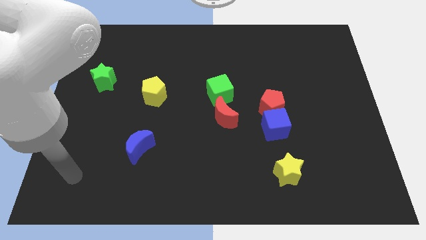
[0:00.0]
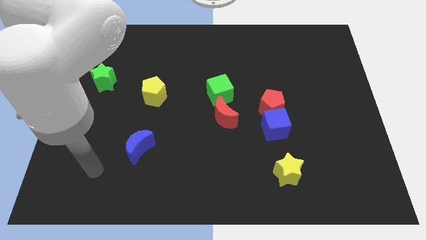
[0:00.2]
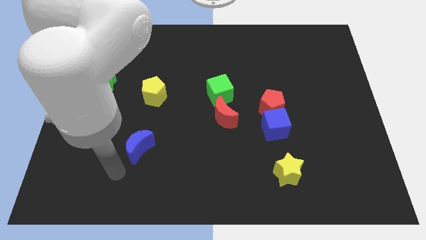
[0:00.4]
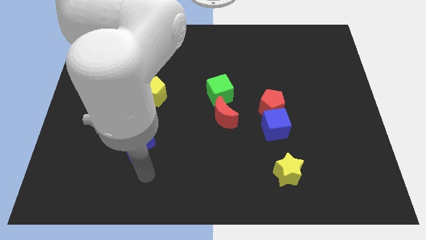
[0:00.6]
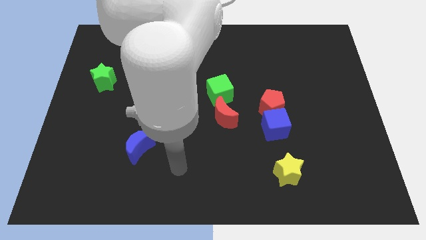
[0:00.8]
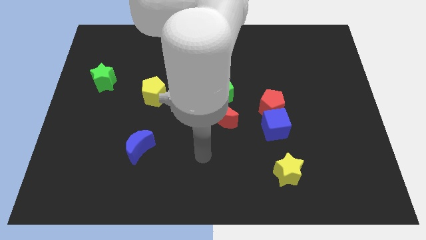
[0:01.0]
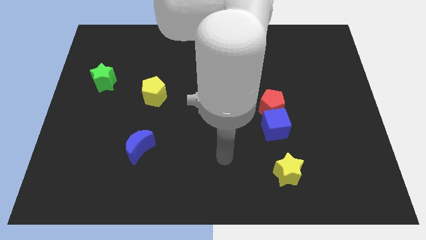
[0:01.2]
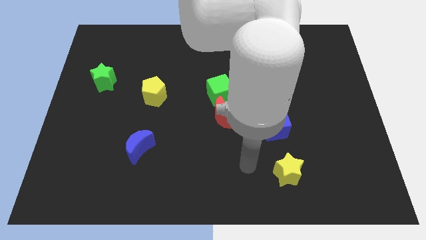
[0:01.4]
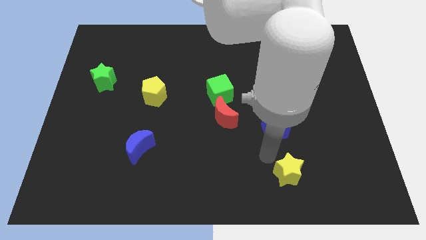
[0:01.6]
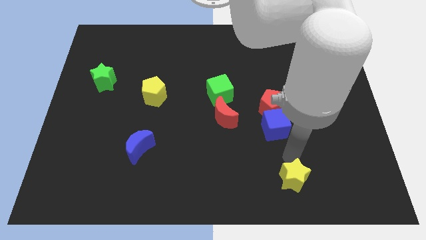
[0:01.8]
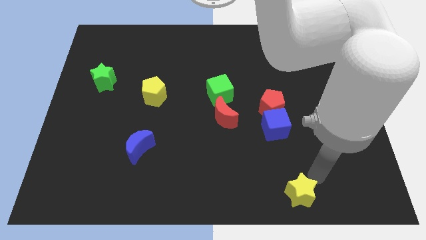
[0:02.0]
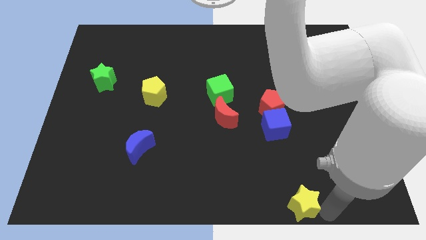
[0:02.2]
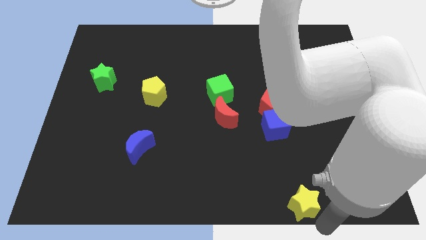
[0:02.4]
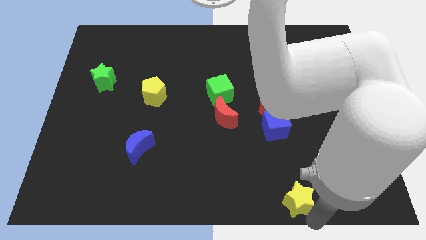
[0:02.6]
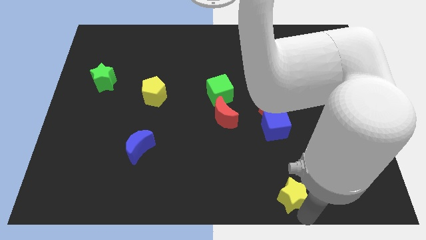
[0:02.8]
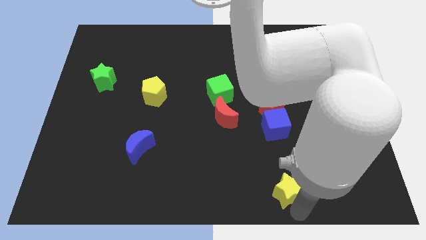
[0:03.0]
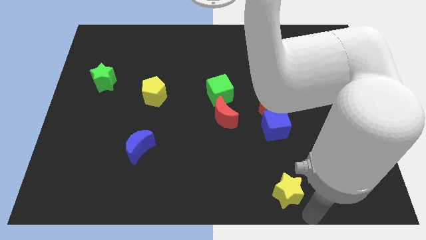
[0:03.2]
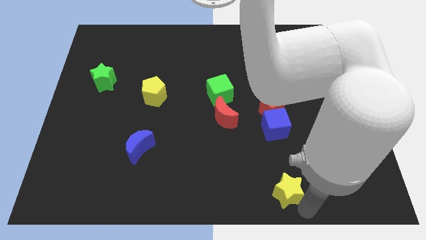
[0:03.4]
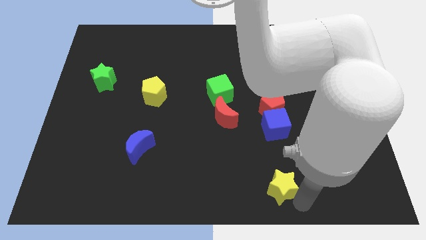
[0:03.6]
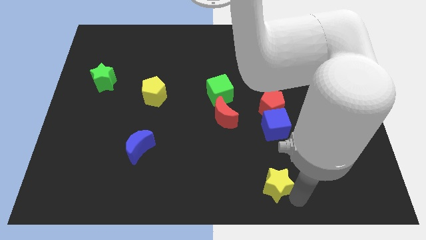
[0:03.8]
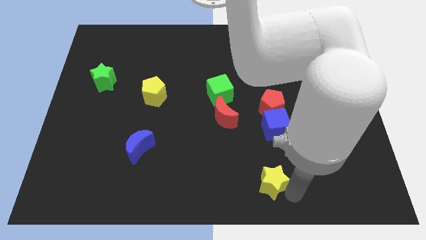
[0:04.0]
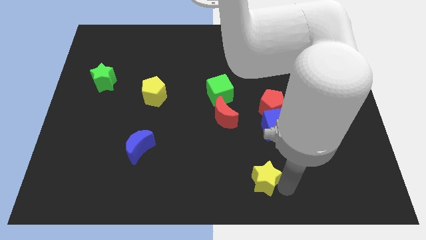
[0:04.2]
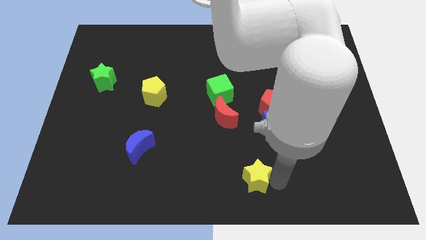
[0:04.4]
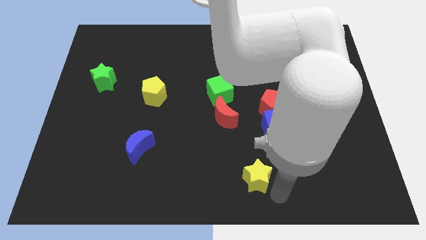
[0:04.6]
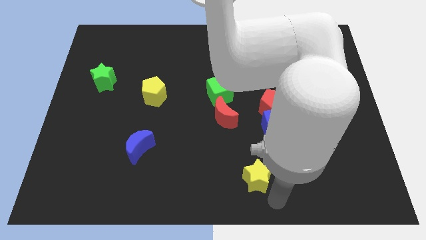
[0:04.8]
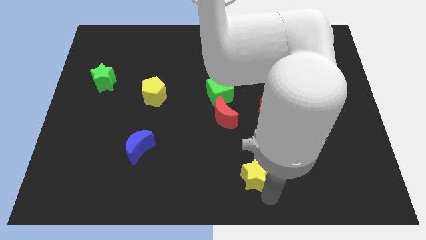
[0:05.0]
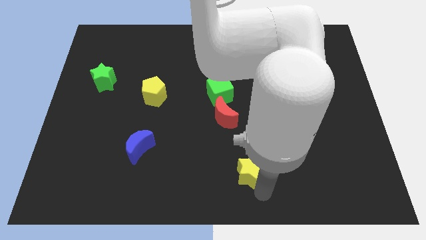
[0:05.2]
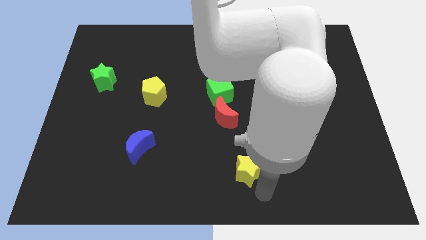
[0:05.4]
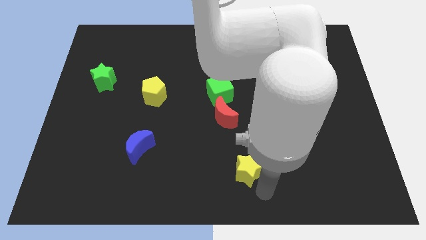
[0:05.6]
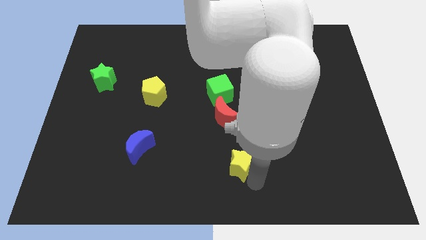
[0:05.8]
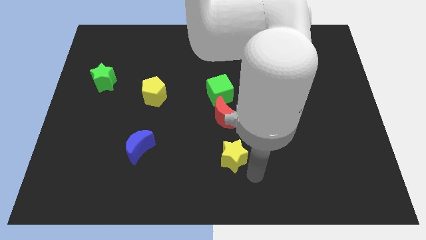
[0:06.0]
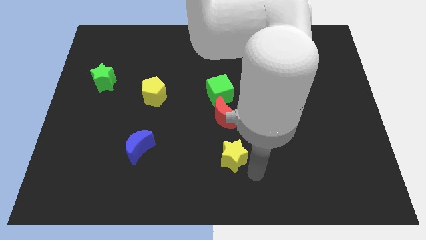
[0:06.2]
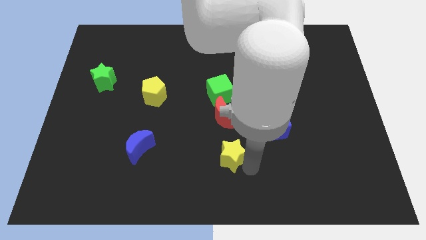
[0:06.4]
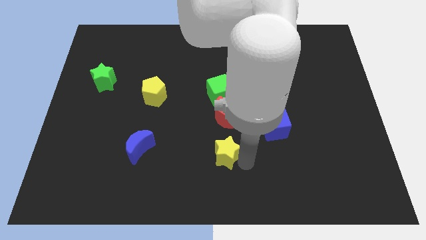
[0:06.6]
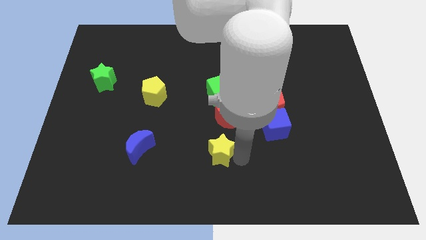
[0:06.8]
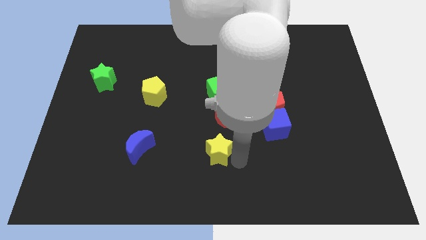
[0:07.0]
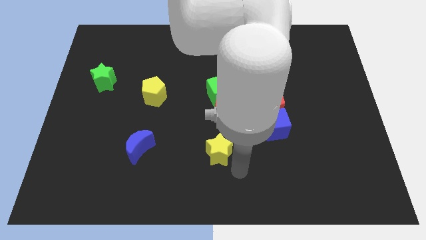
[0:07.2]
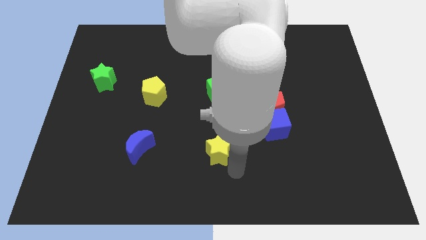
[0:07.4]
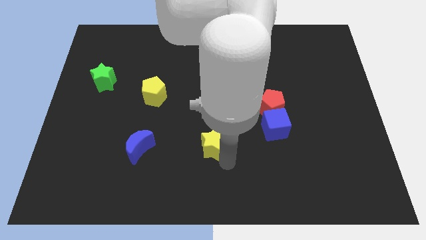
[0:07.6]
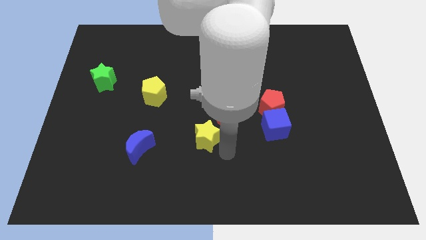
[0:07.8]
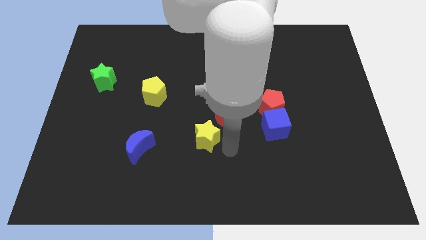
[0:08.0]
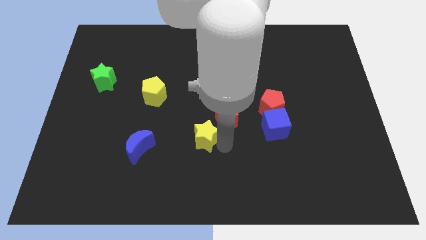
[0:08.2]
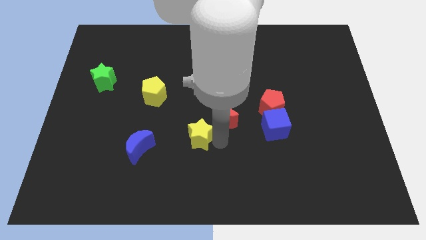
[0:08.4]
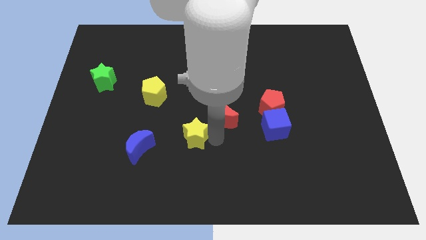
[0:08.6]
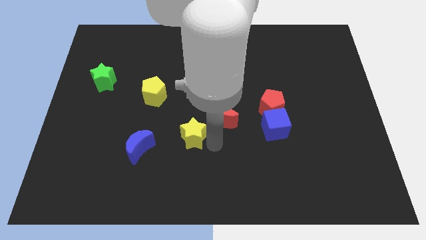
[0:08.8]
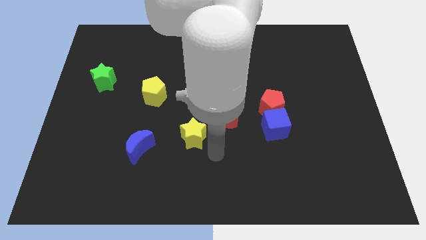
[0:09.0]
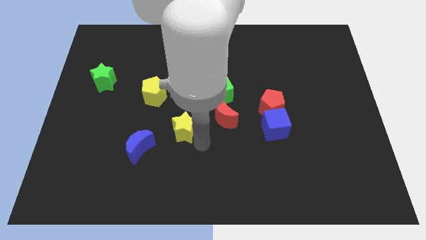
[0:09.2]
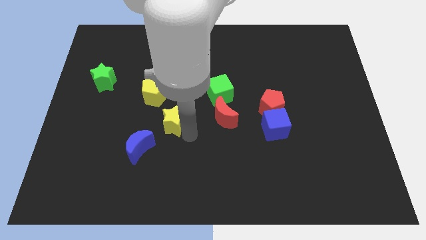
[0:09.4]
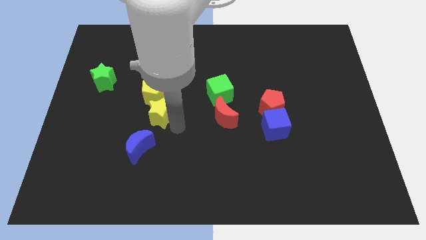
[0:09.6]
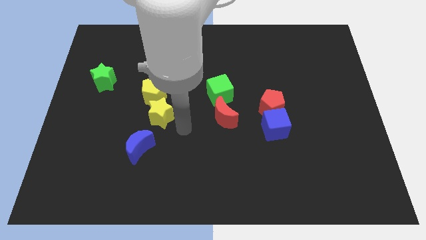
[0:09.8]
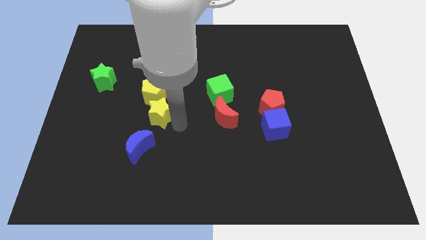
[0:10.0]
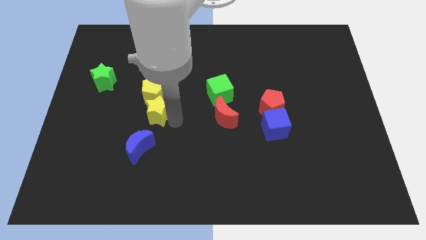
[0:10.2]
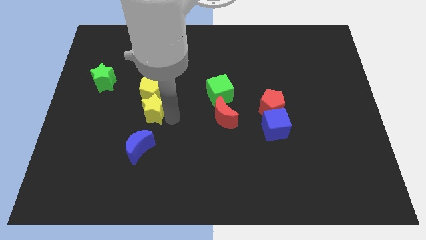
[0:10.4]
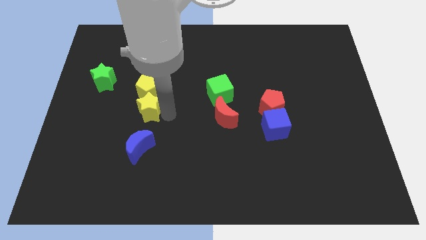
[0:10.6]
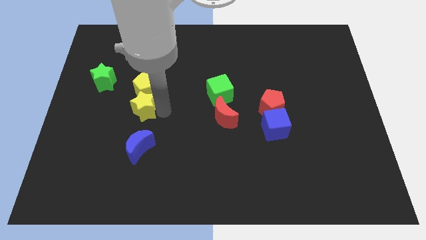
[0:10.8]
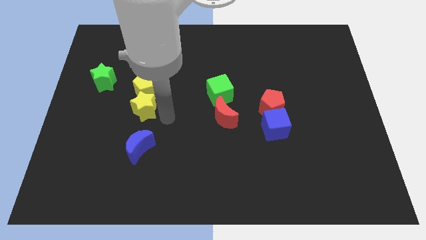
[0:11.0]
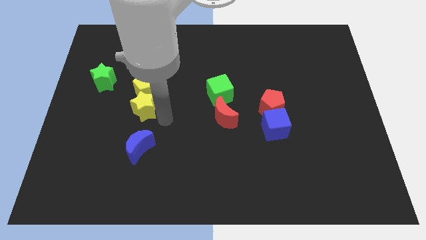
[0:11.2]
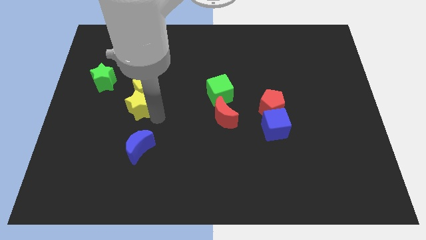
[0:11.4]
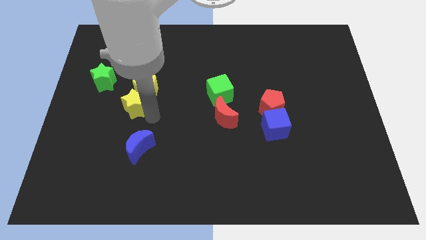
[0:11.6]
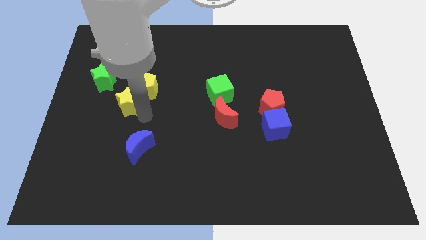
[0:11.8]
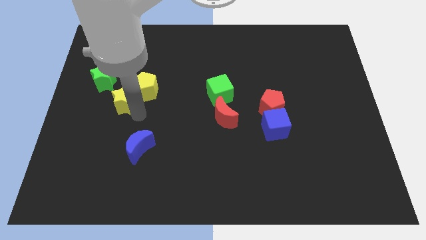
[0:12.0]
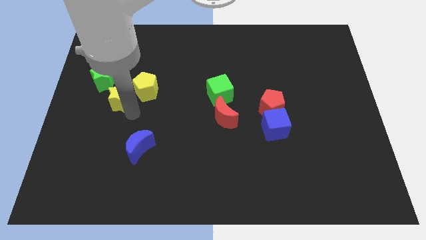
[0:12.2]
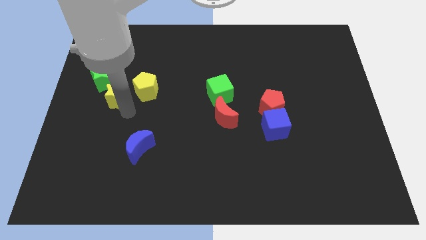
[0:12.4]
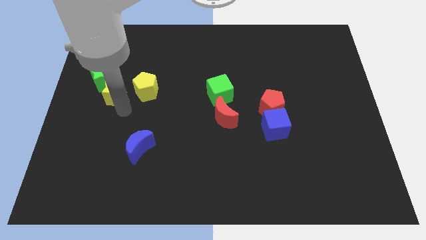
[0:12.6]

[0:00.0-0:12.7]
push the yellow star towards the green star

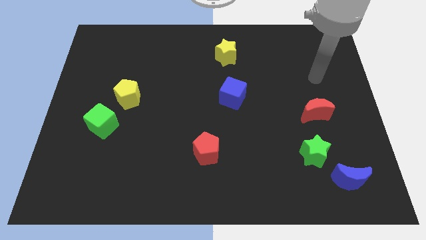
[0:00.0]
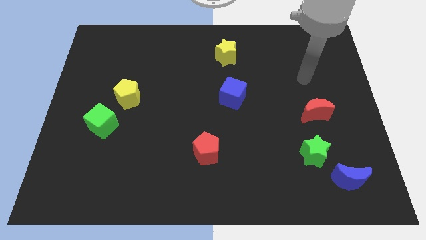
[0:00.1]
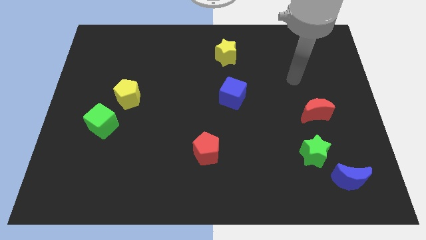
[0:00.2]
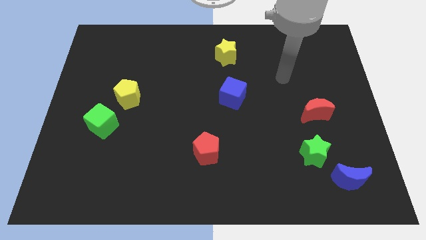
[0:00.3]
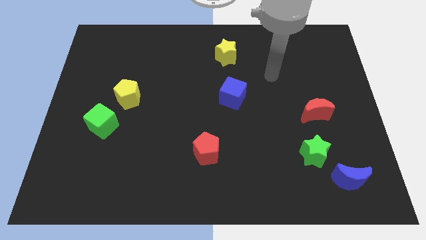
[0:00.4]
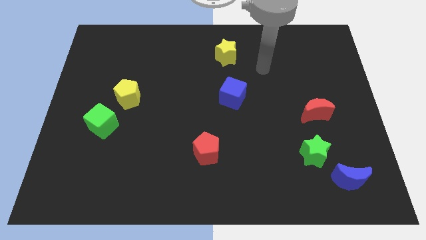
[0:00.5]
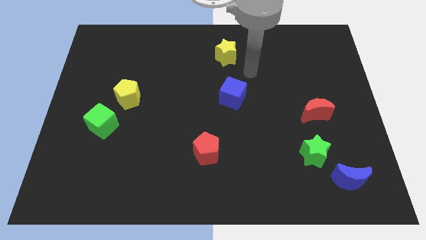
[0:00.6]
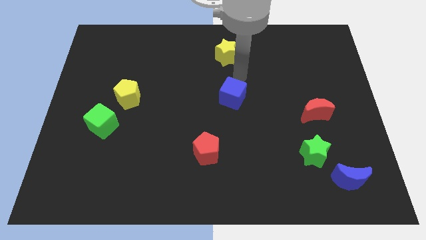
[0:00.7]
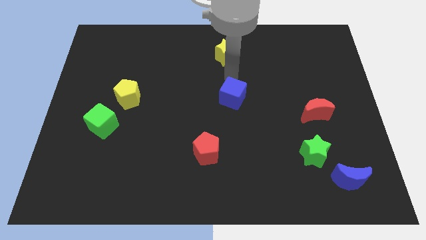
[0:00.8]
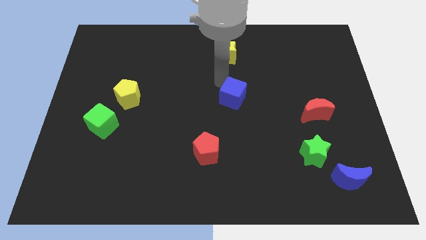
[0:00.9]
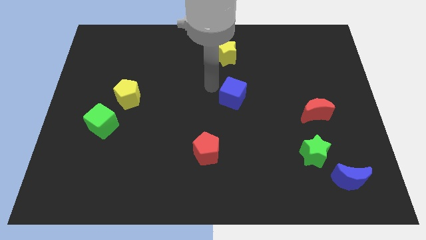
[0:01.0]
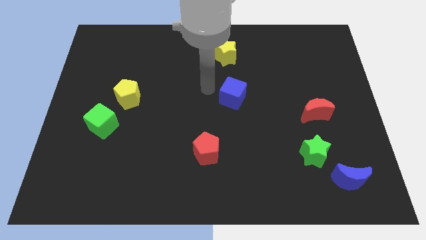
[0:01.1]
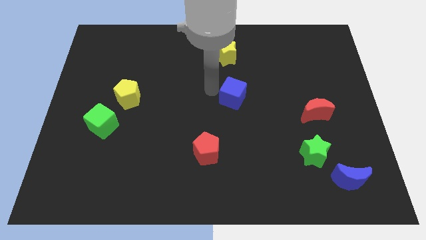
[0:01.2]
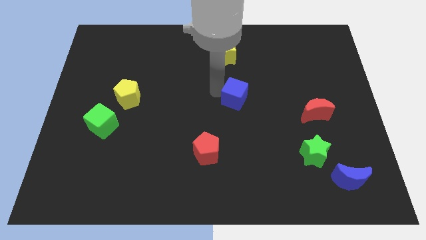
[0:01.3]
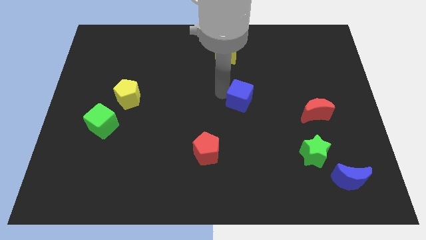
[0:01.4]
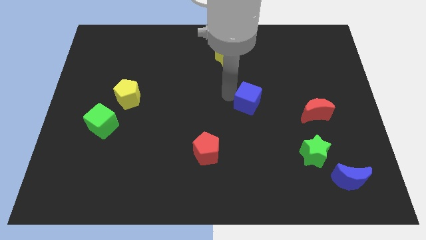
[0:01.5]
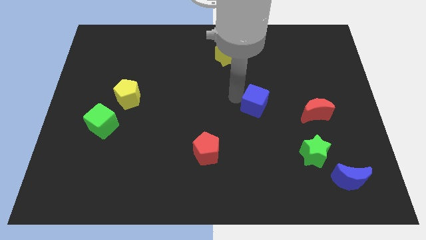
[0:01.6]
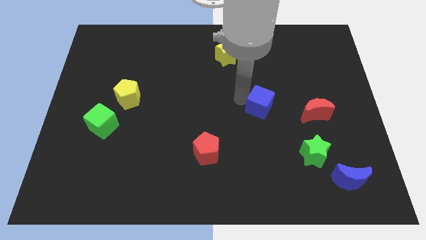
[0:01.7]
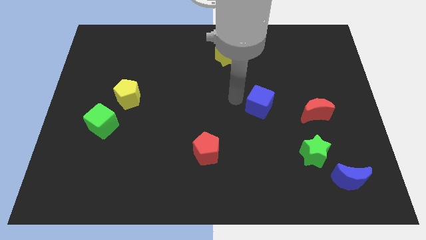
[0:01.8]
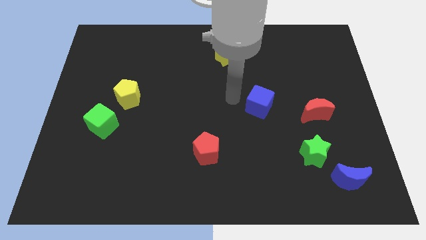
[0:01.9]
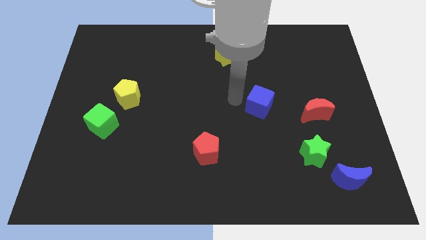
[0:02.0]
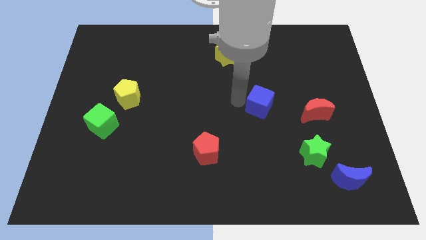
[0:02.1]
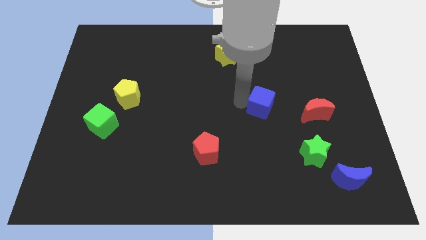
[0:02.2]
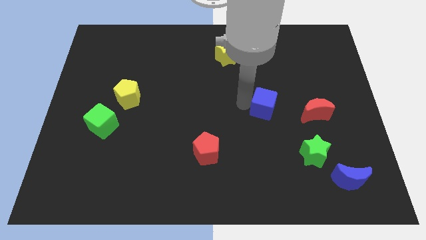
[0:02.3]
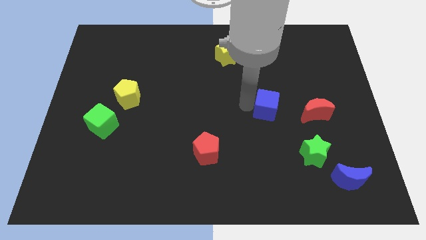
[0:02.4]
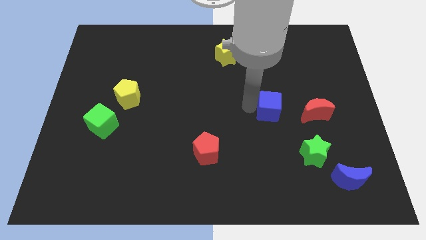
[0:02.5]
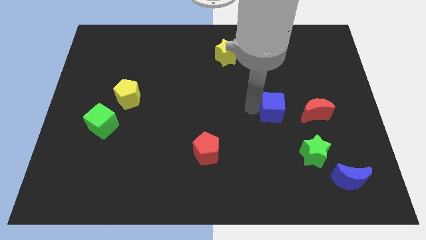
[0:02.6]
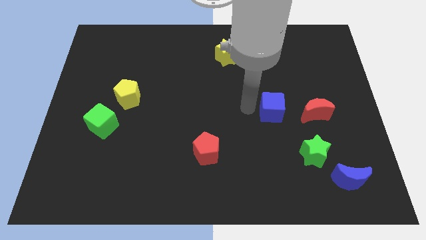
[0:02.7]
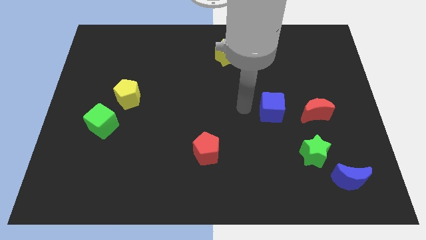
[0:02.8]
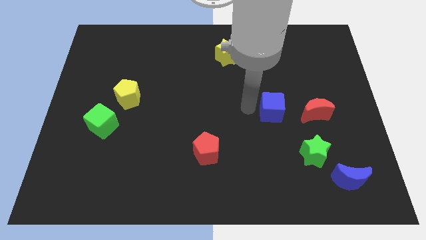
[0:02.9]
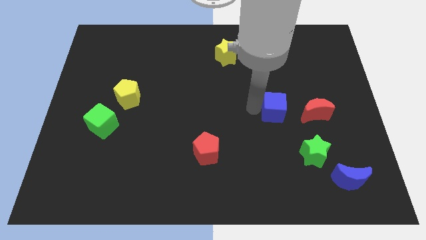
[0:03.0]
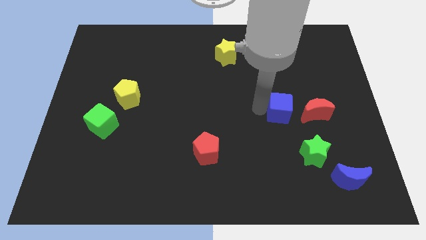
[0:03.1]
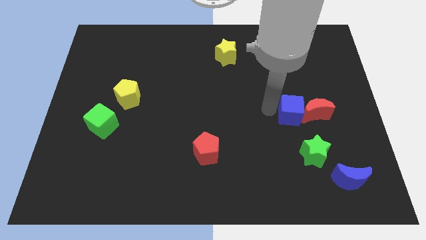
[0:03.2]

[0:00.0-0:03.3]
slide the blue cube next to the red moon
